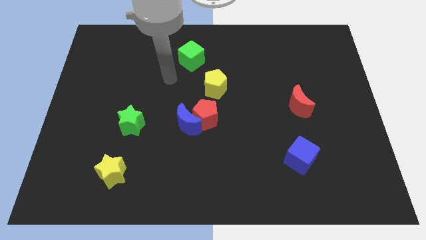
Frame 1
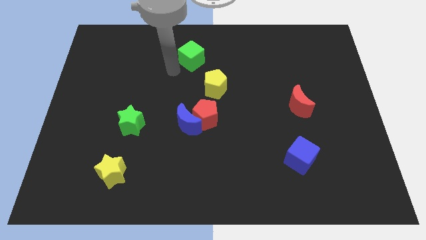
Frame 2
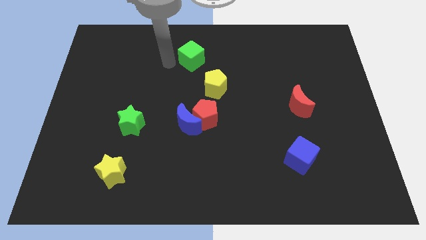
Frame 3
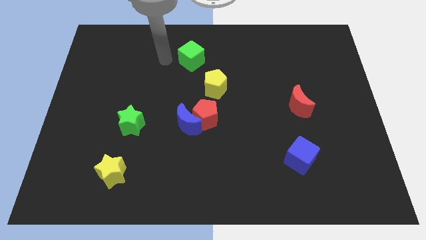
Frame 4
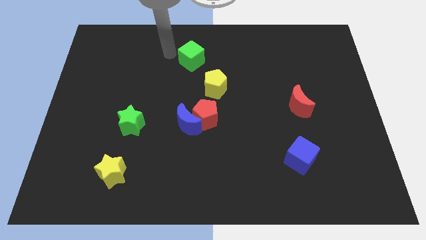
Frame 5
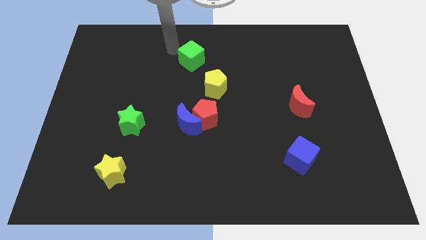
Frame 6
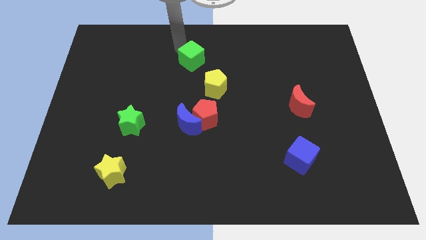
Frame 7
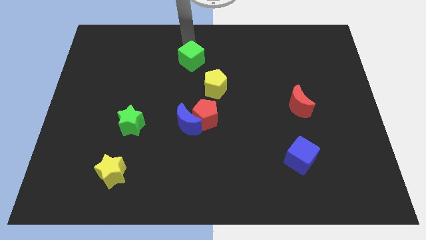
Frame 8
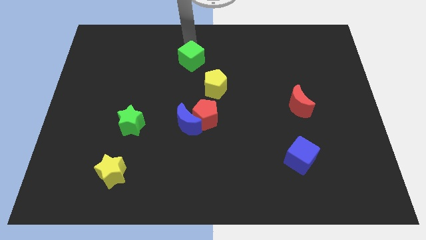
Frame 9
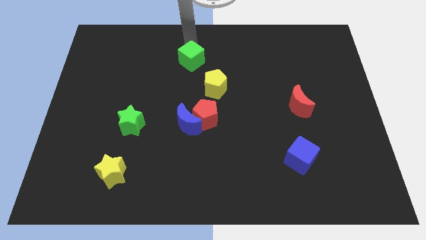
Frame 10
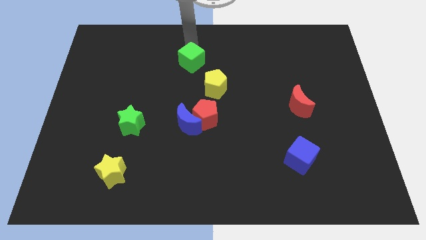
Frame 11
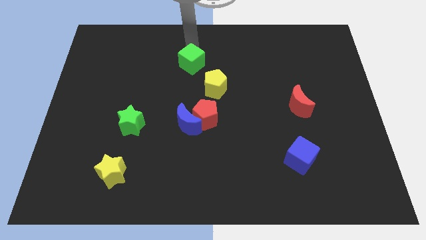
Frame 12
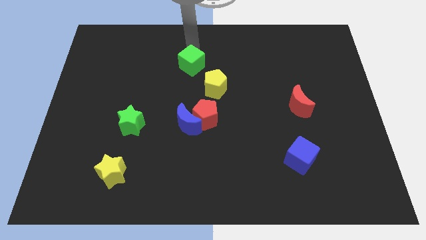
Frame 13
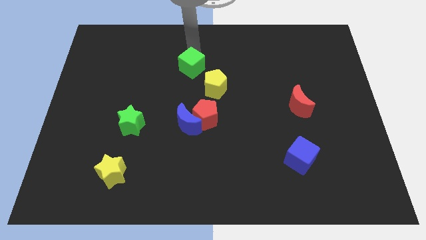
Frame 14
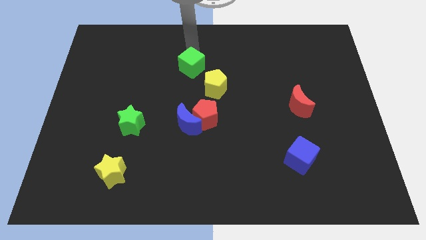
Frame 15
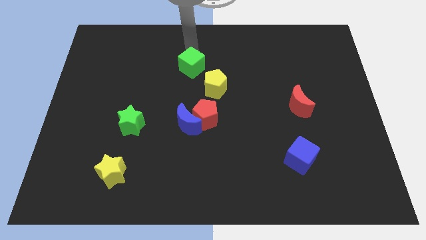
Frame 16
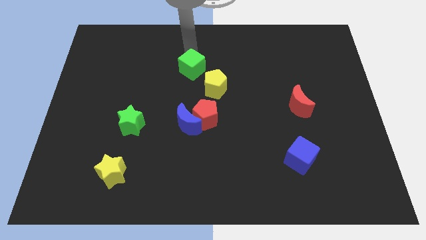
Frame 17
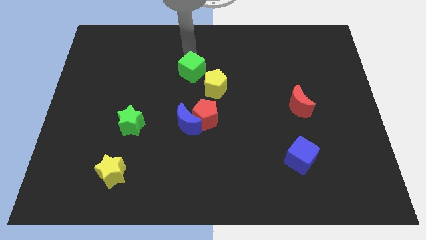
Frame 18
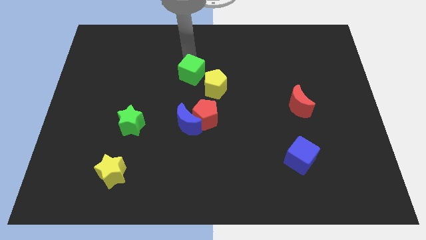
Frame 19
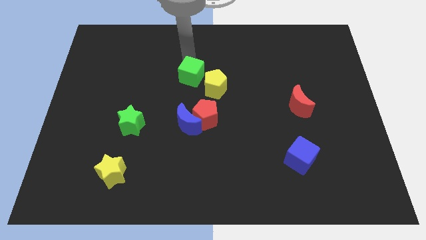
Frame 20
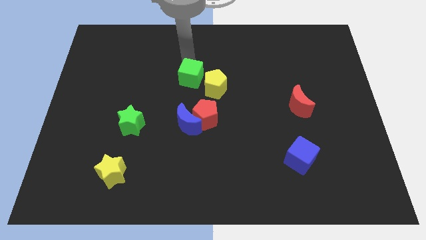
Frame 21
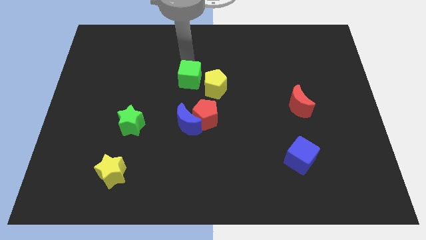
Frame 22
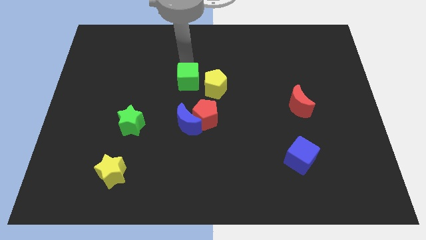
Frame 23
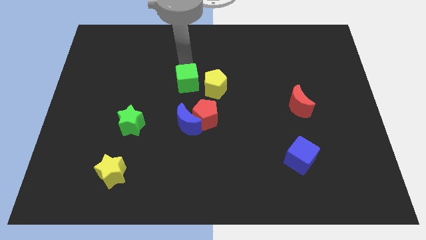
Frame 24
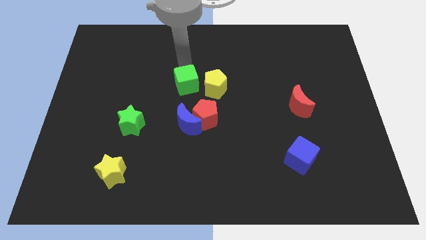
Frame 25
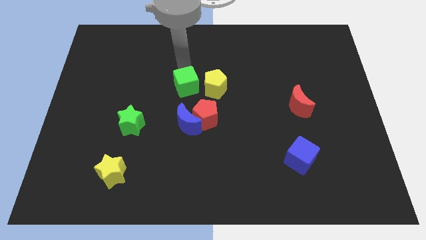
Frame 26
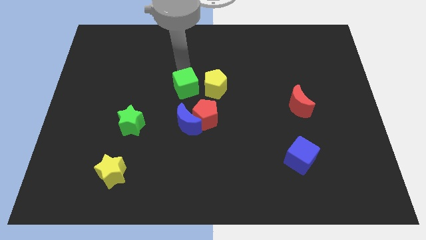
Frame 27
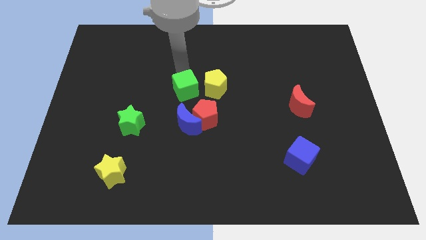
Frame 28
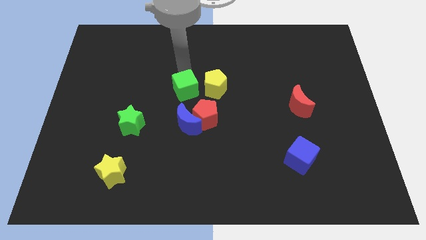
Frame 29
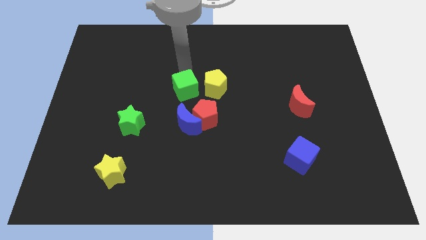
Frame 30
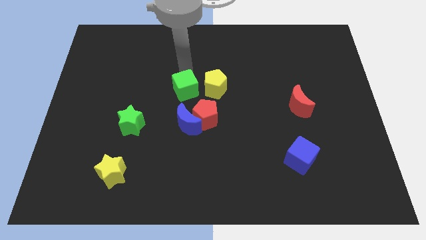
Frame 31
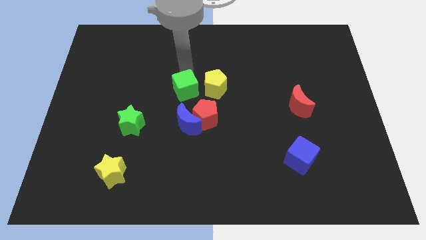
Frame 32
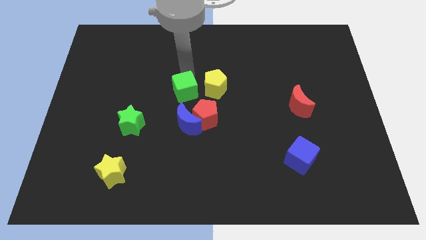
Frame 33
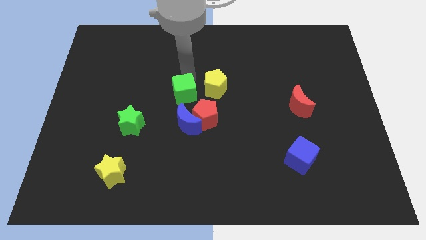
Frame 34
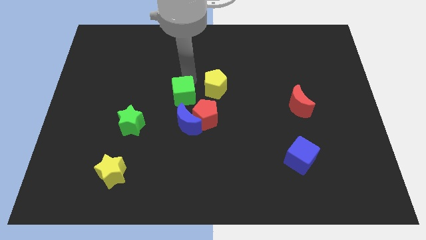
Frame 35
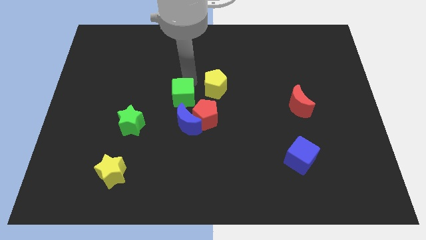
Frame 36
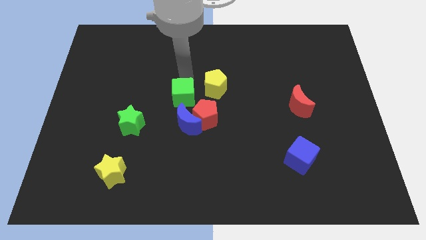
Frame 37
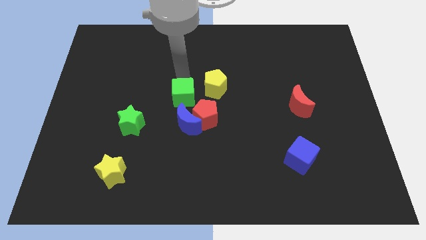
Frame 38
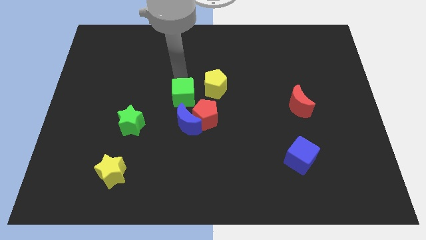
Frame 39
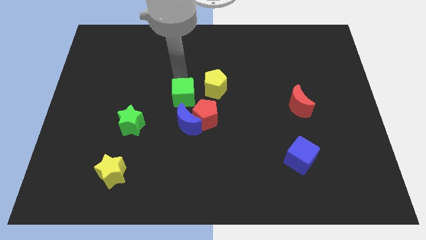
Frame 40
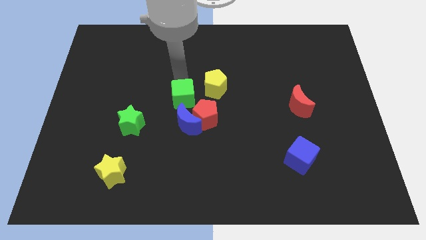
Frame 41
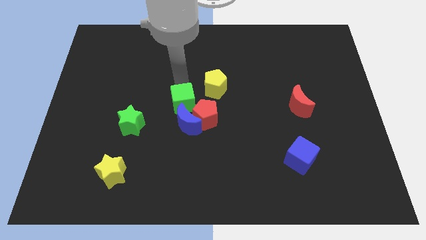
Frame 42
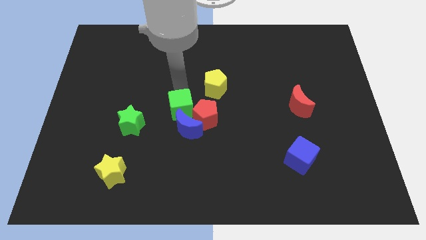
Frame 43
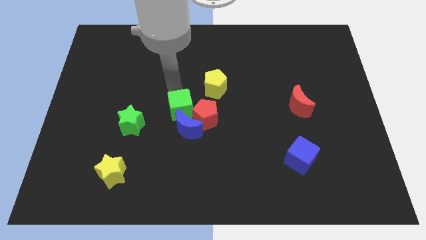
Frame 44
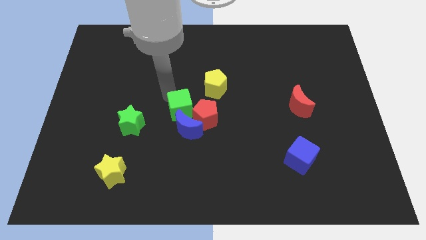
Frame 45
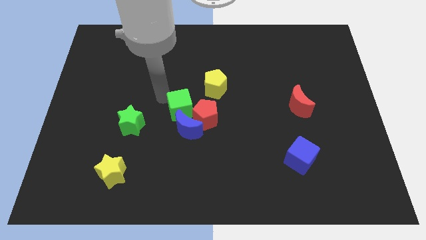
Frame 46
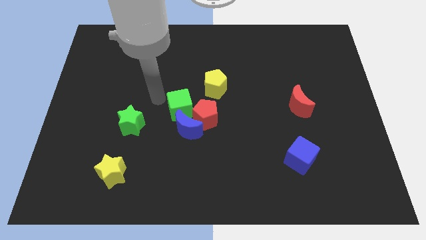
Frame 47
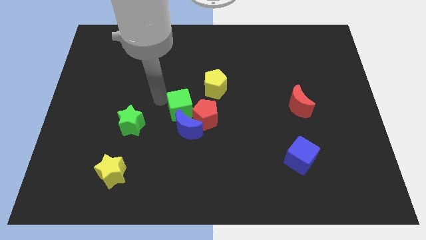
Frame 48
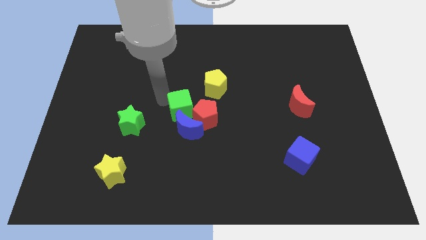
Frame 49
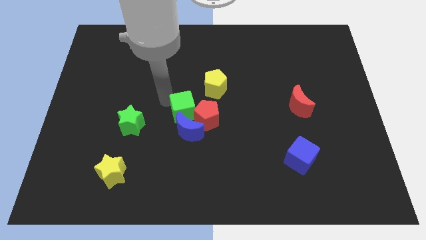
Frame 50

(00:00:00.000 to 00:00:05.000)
slide the green cube next to the red pentagon

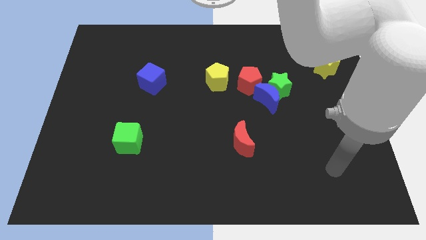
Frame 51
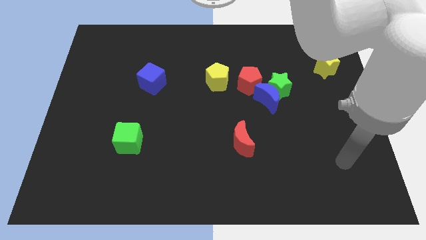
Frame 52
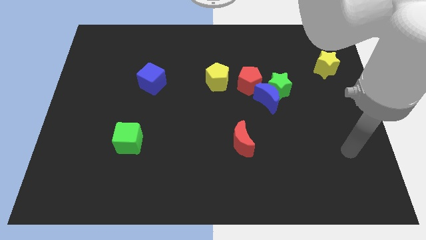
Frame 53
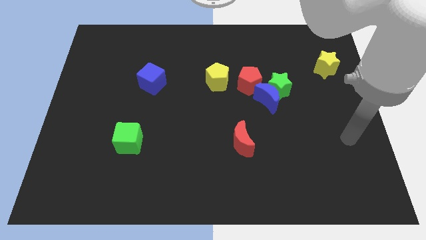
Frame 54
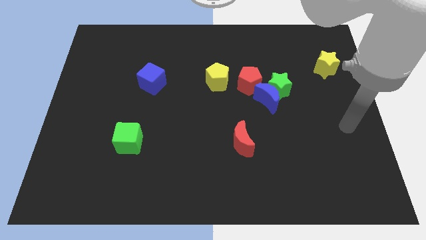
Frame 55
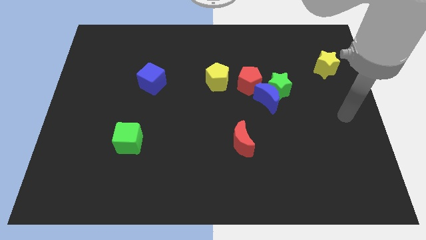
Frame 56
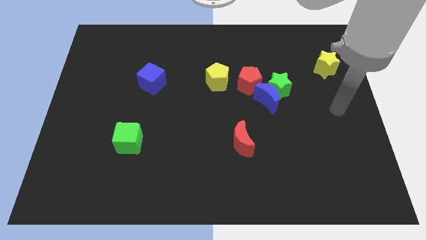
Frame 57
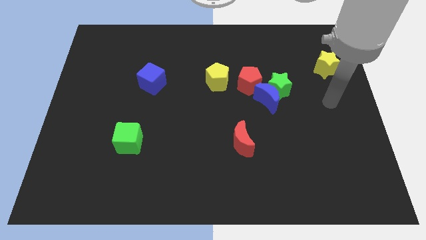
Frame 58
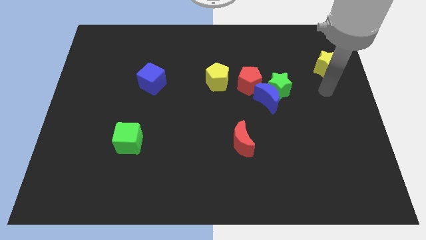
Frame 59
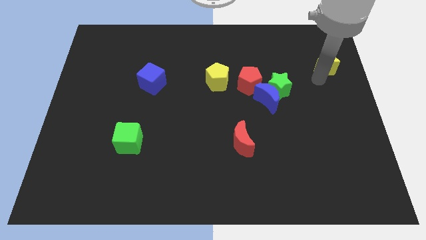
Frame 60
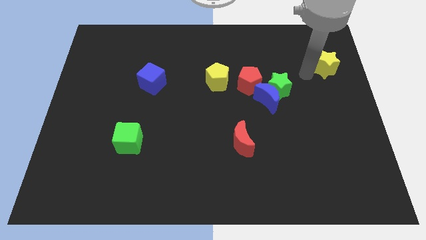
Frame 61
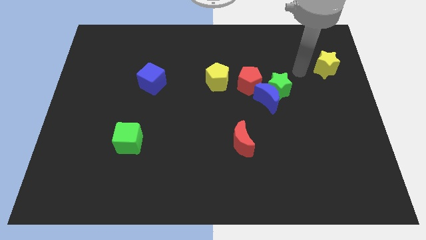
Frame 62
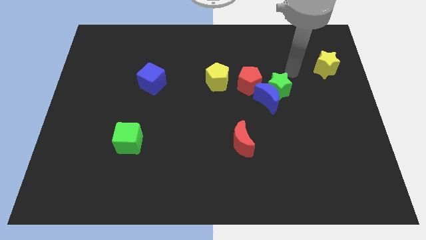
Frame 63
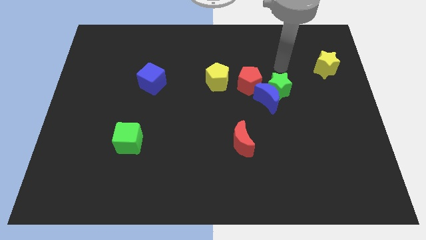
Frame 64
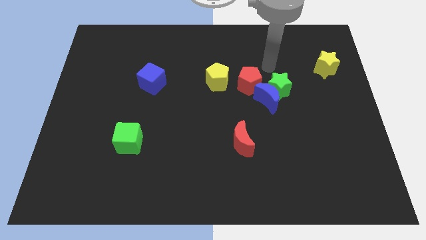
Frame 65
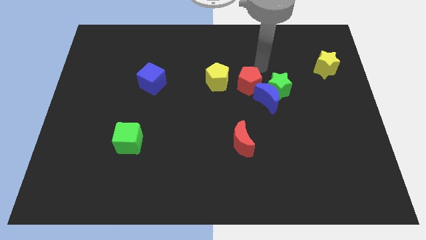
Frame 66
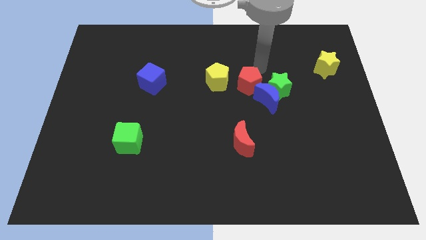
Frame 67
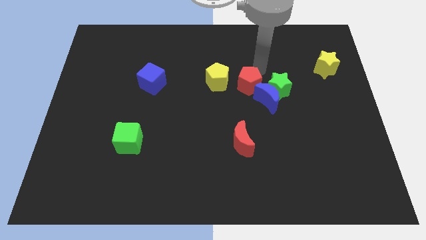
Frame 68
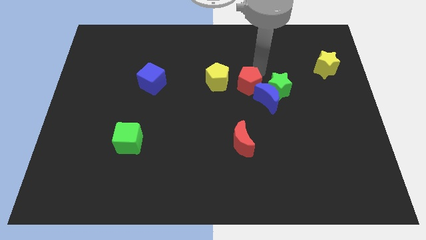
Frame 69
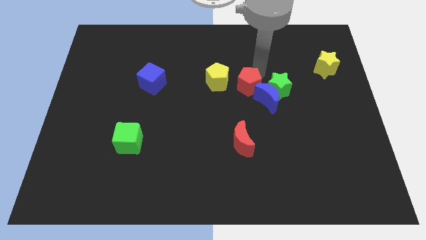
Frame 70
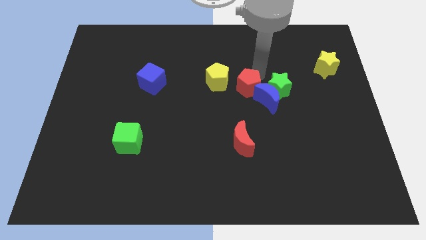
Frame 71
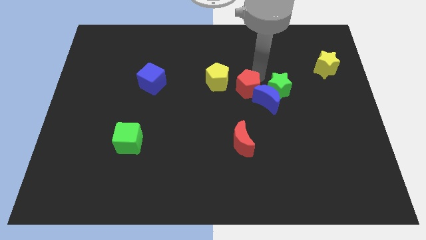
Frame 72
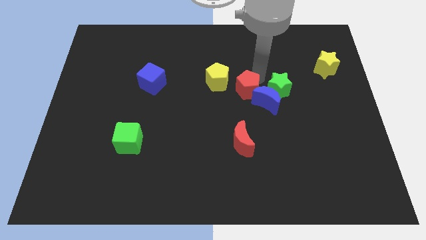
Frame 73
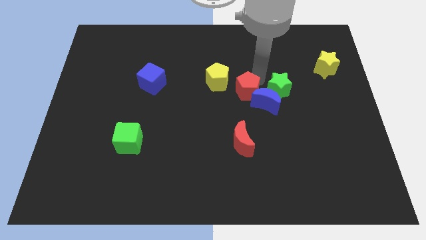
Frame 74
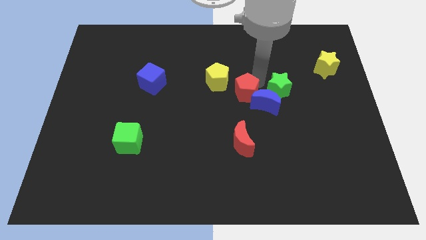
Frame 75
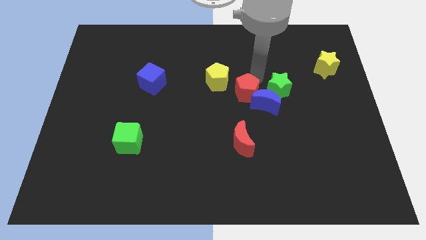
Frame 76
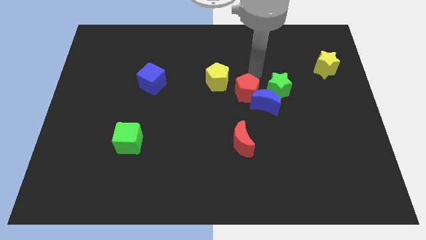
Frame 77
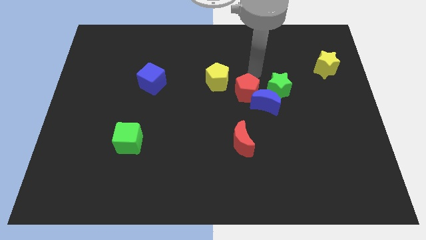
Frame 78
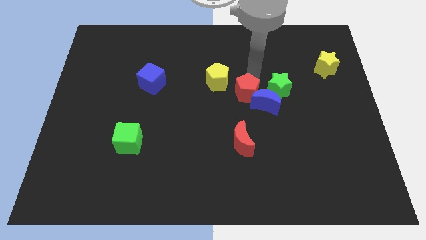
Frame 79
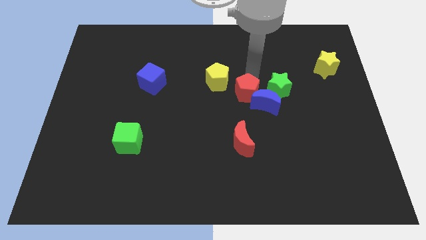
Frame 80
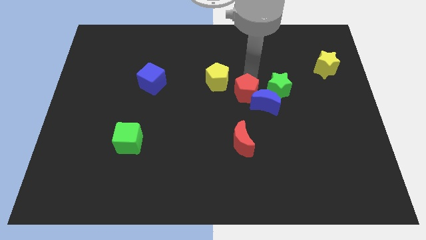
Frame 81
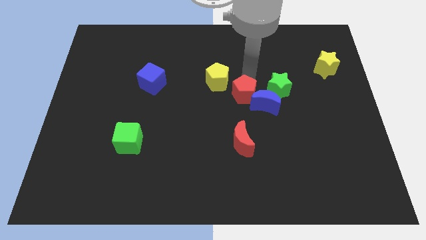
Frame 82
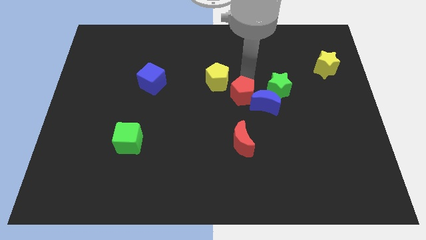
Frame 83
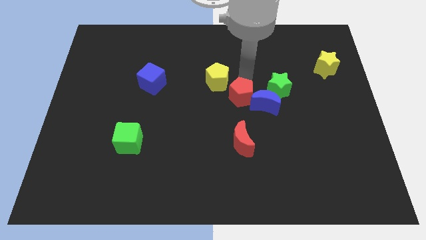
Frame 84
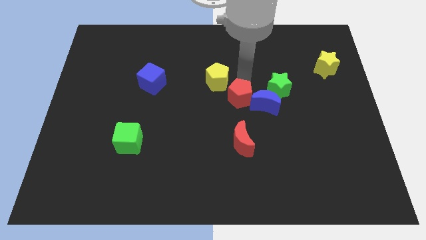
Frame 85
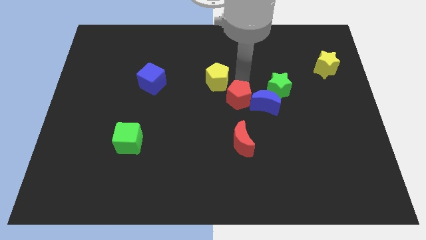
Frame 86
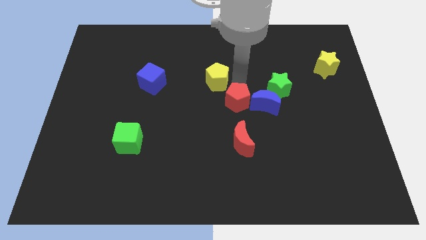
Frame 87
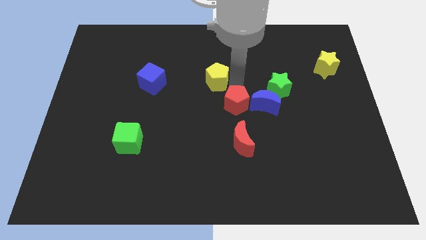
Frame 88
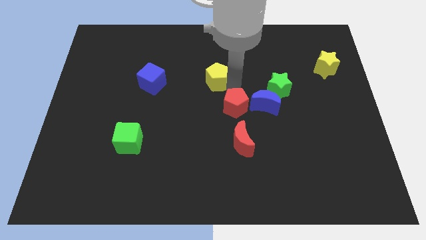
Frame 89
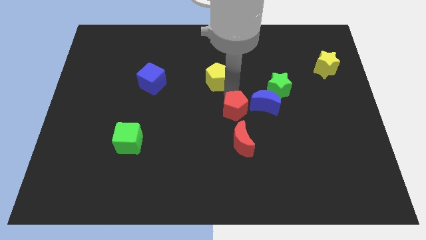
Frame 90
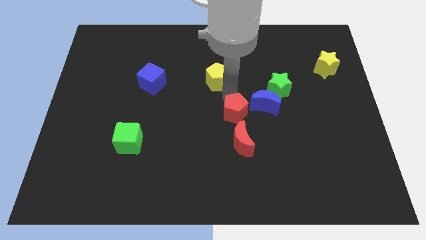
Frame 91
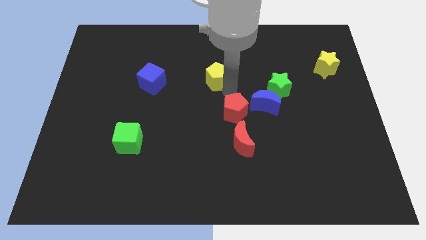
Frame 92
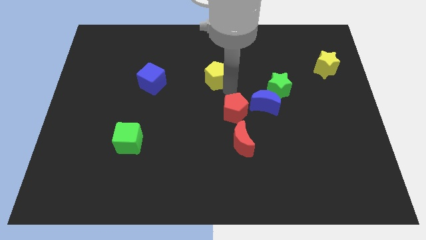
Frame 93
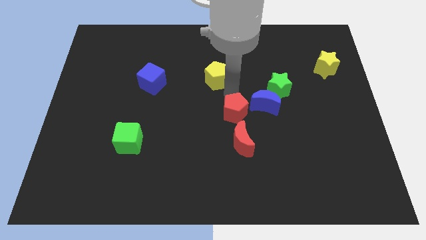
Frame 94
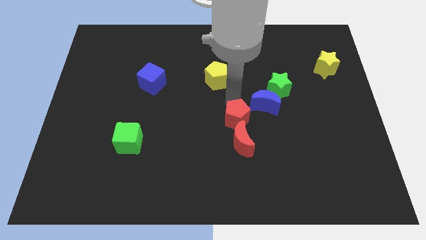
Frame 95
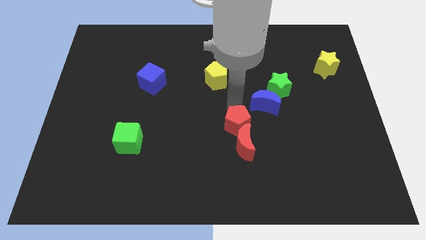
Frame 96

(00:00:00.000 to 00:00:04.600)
slide the red pentagon towards the red moon
